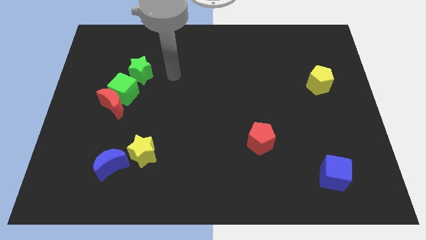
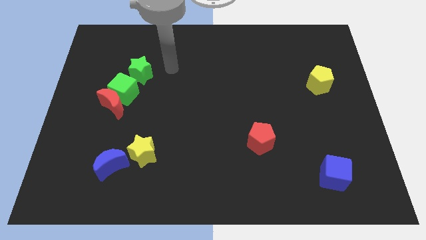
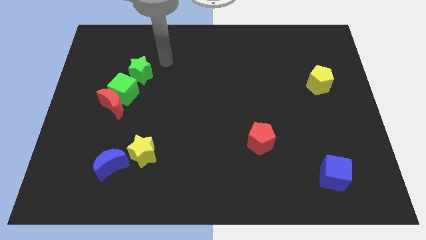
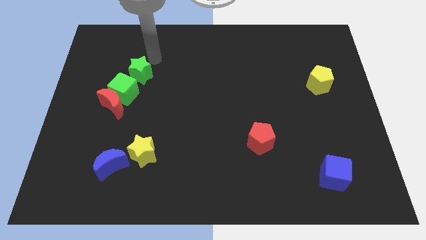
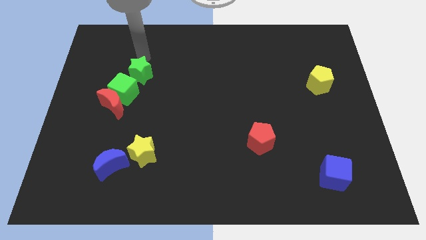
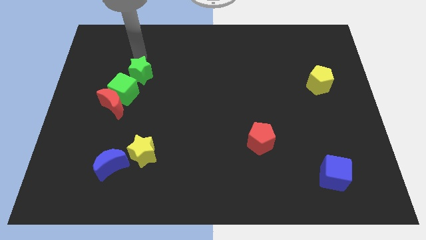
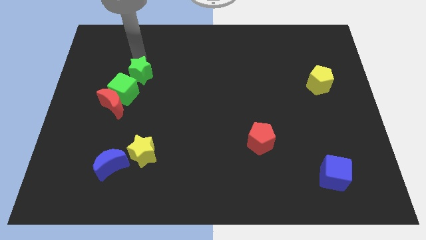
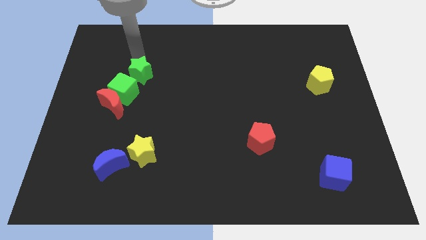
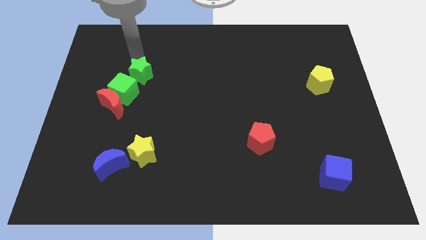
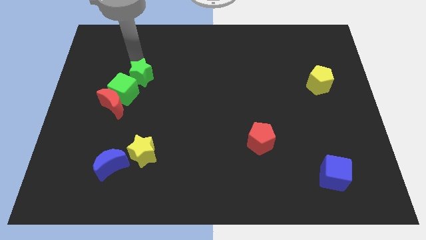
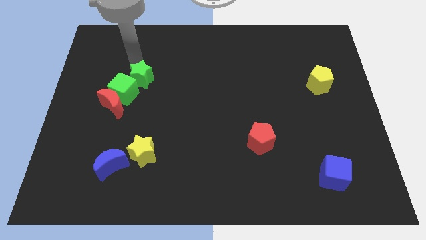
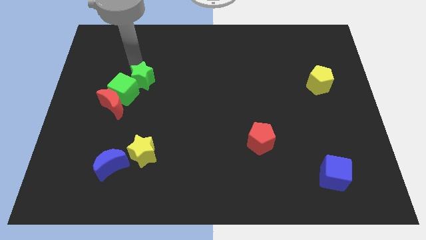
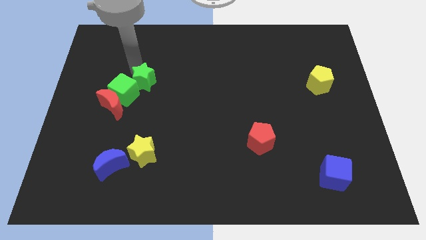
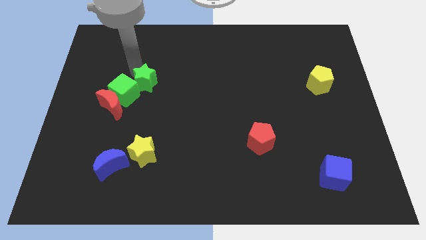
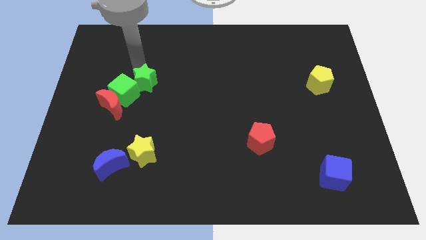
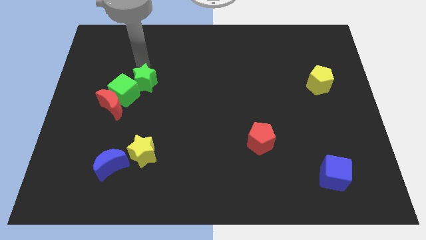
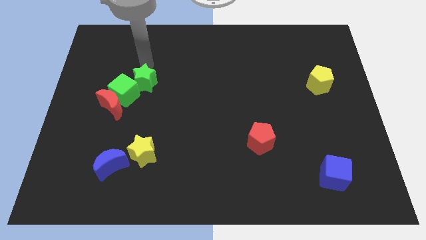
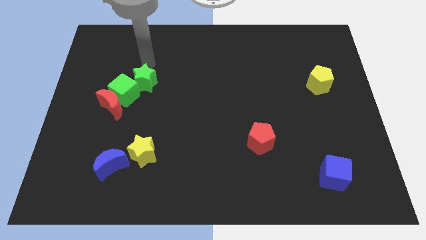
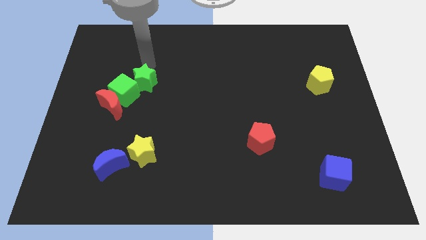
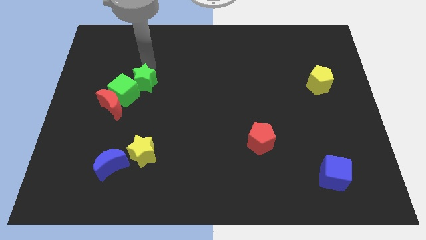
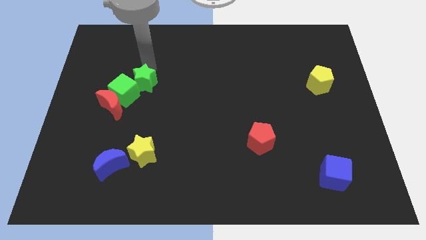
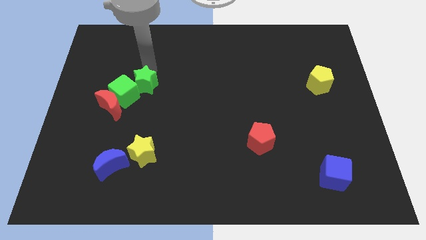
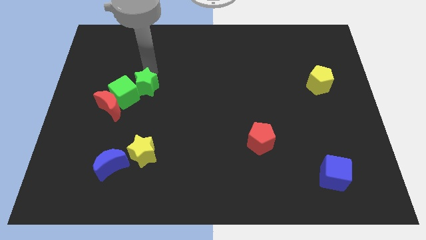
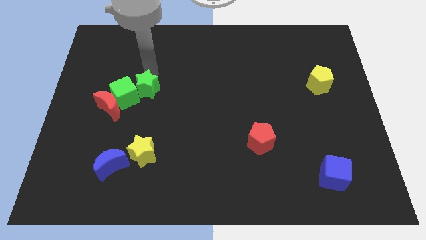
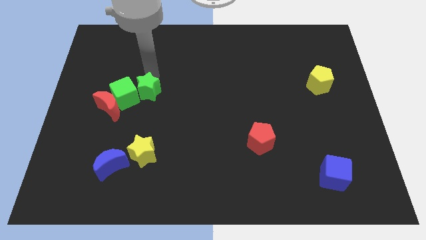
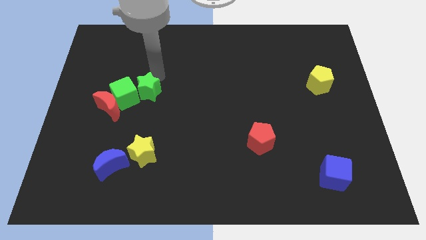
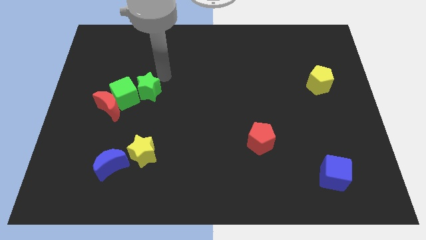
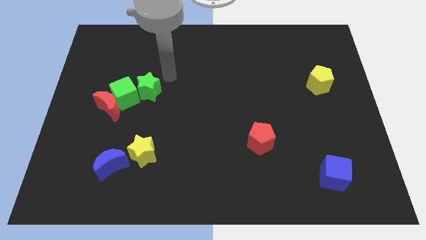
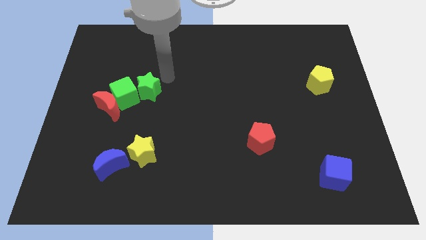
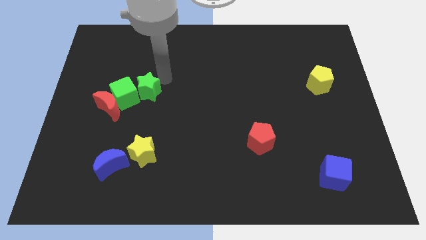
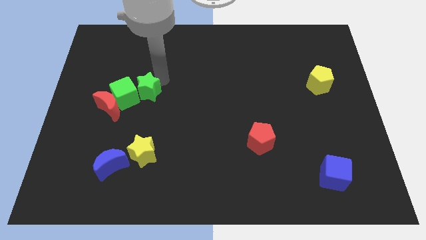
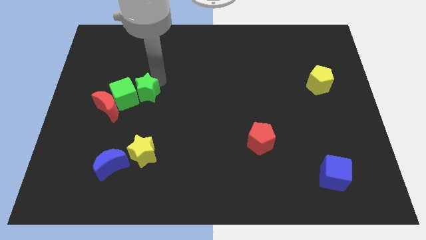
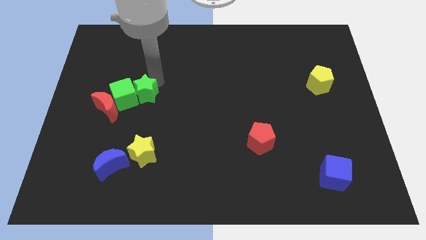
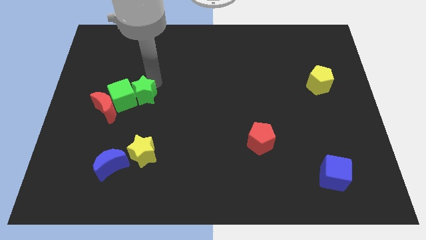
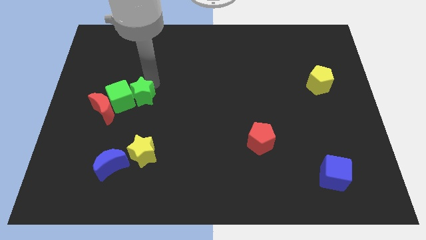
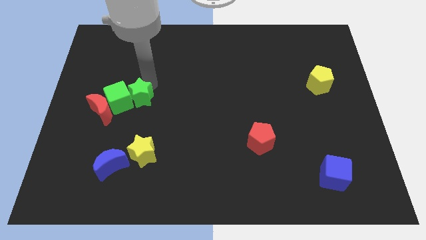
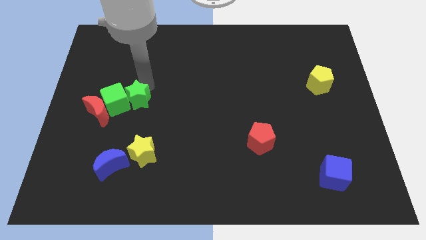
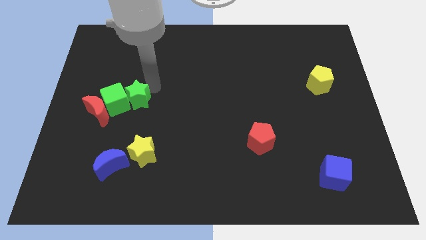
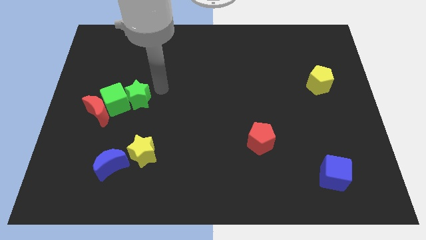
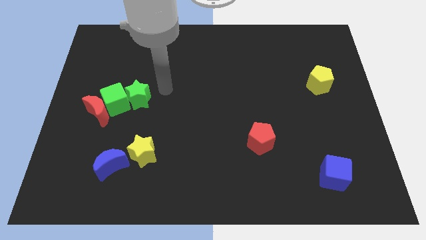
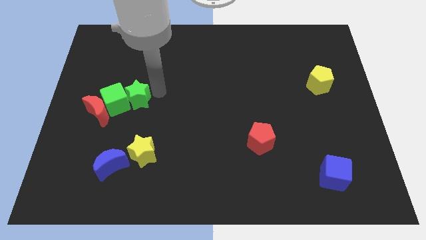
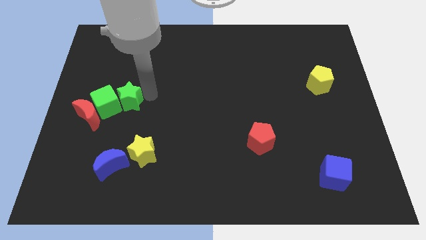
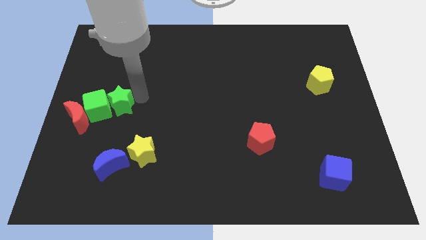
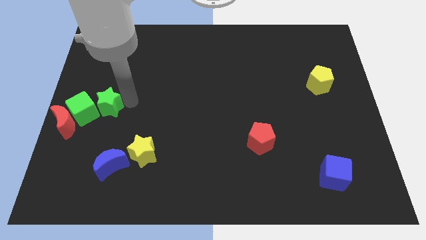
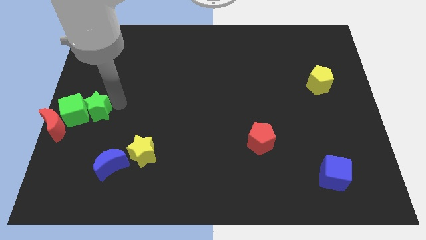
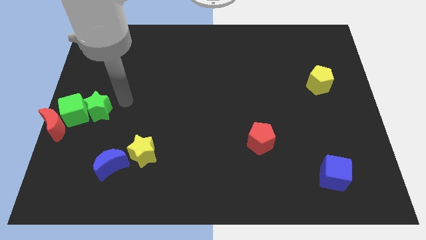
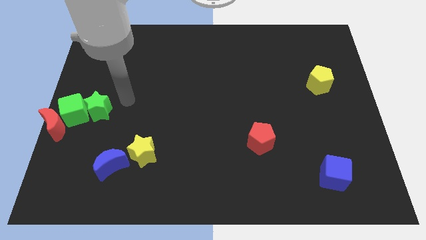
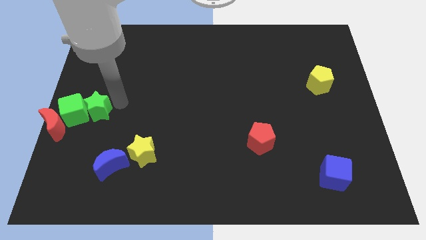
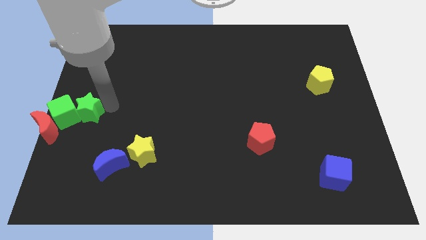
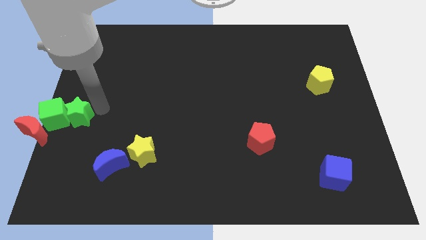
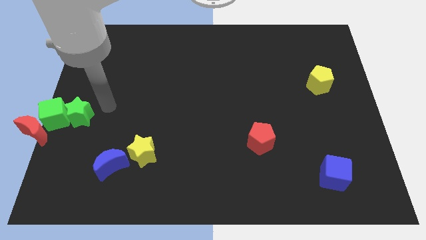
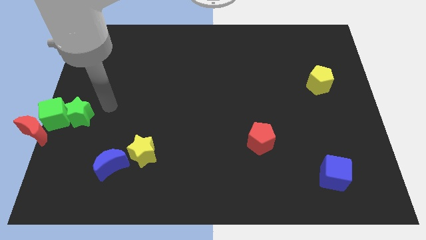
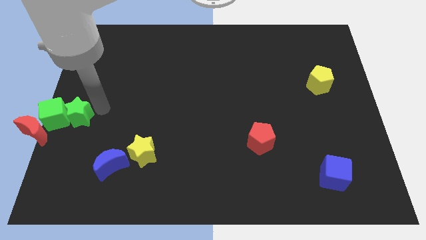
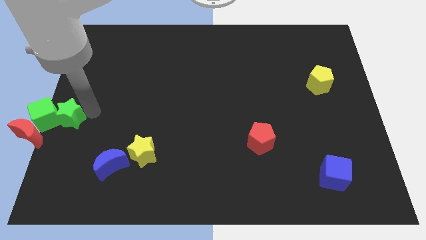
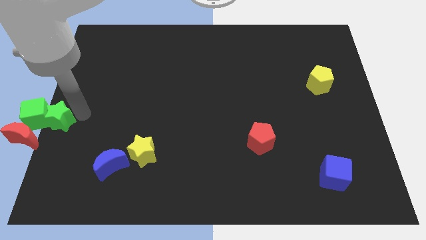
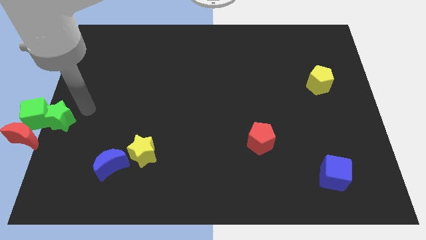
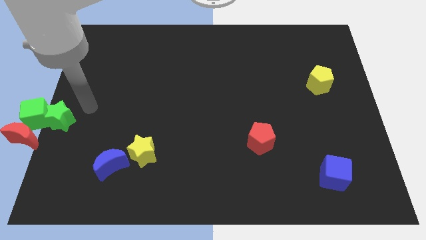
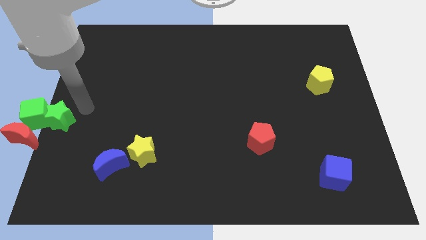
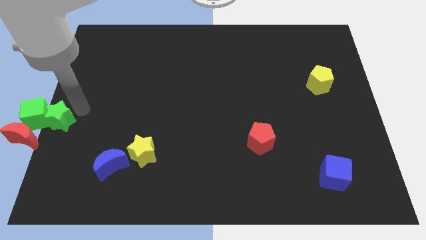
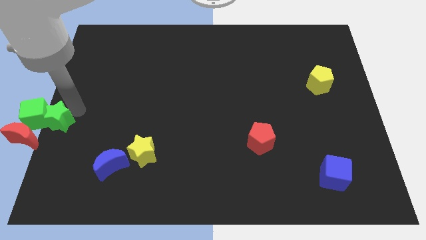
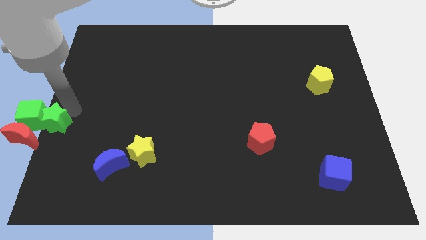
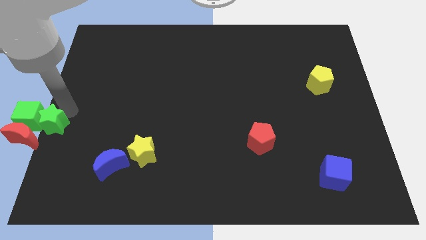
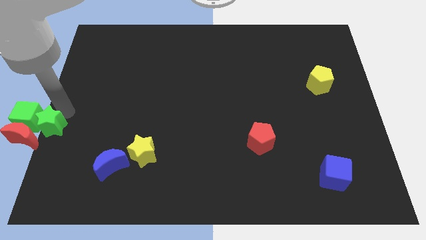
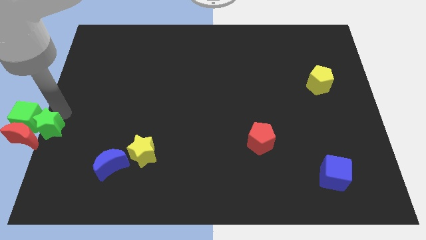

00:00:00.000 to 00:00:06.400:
push the green star next to the red moon
